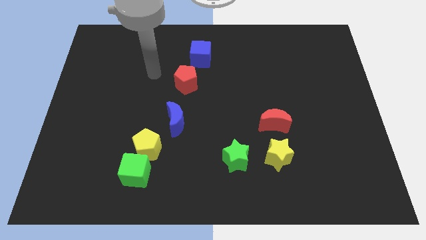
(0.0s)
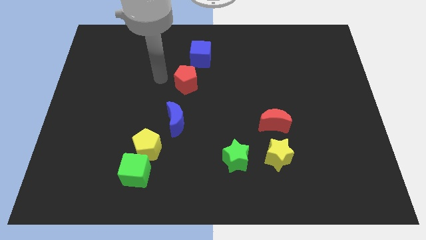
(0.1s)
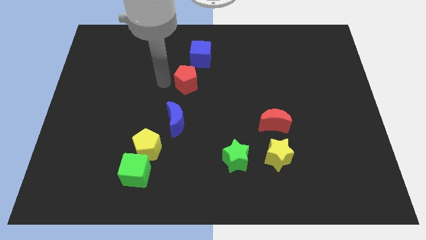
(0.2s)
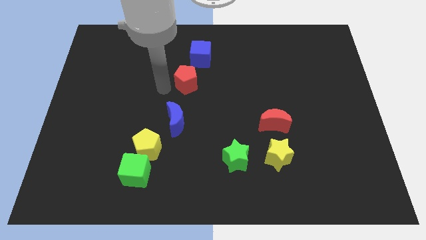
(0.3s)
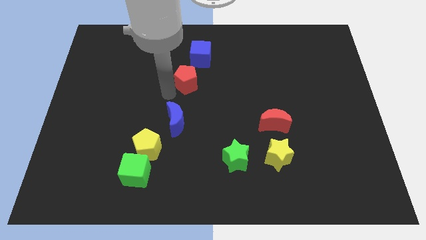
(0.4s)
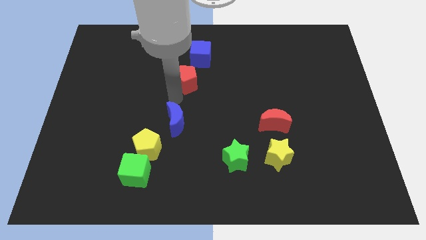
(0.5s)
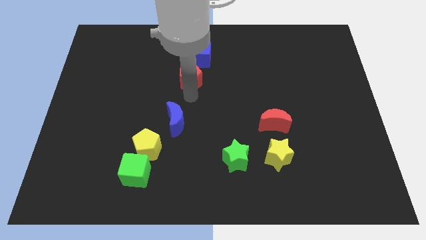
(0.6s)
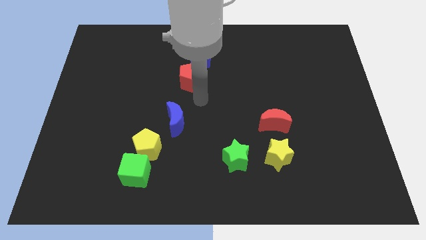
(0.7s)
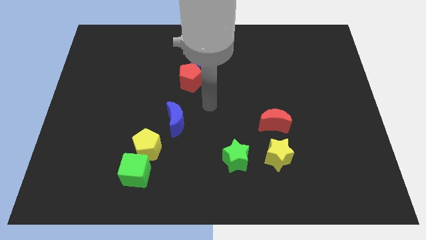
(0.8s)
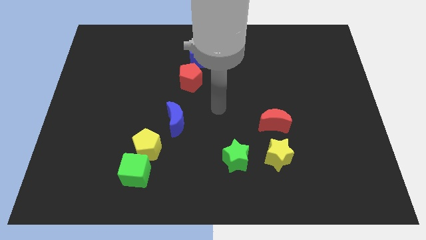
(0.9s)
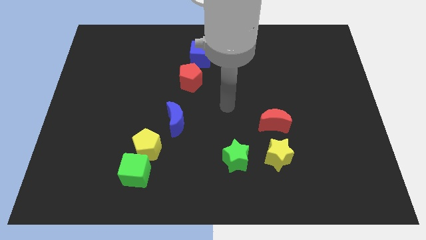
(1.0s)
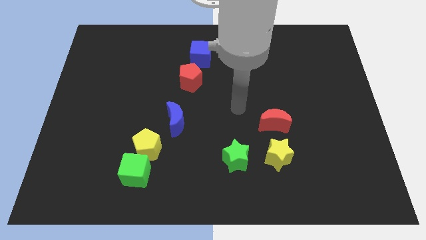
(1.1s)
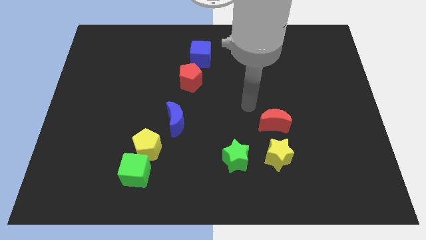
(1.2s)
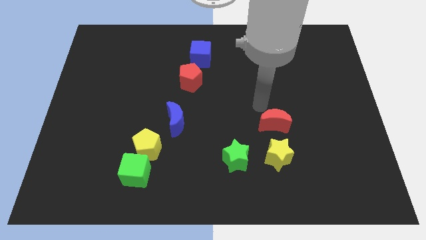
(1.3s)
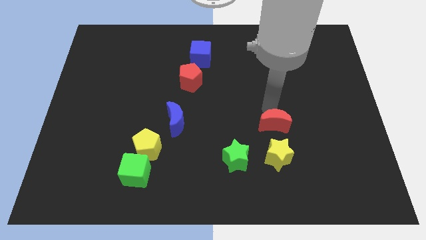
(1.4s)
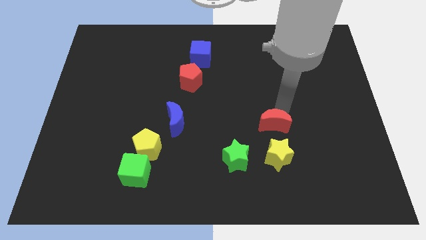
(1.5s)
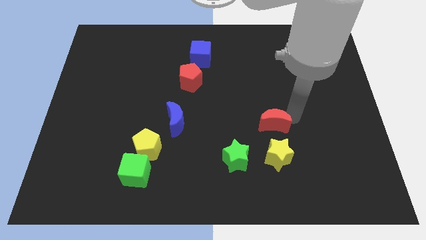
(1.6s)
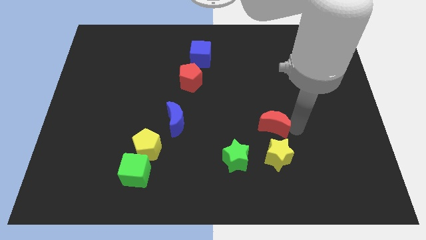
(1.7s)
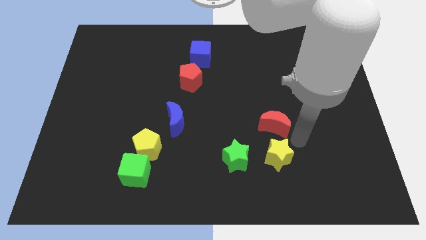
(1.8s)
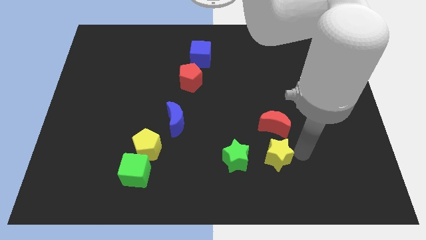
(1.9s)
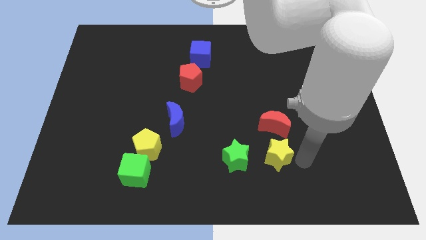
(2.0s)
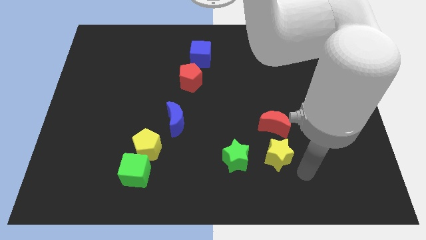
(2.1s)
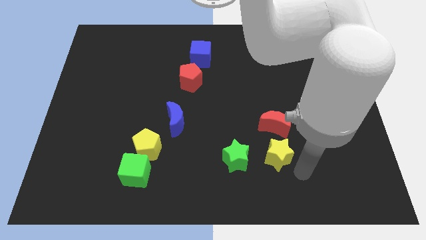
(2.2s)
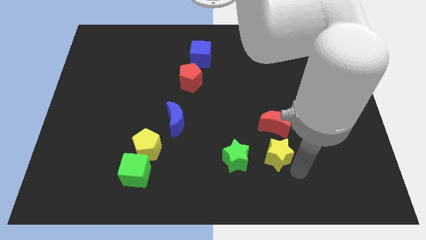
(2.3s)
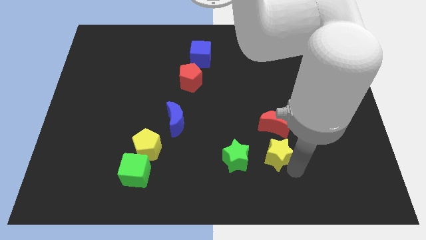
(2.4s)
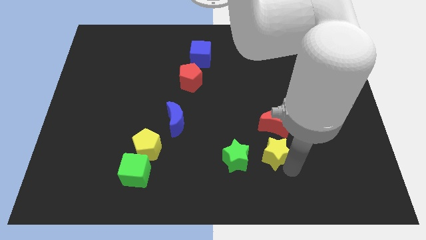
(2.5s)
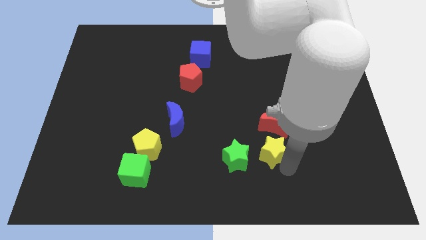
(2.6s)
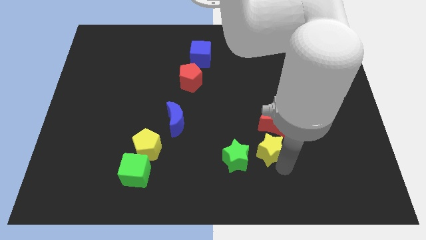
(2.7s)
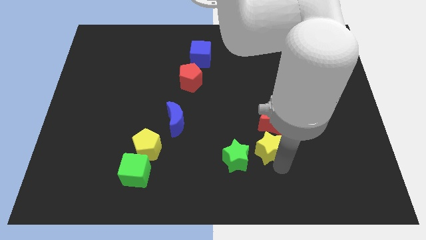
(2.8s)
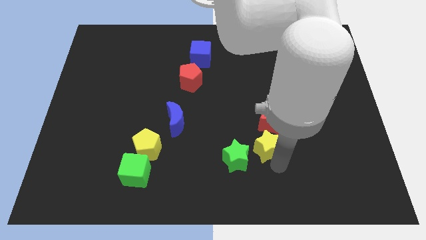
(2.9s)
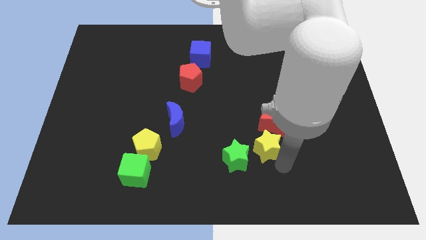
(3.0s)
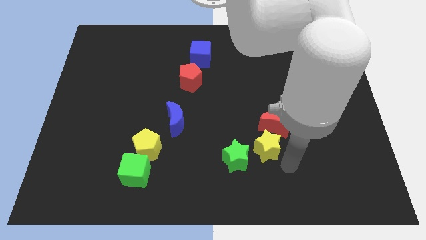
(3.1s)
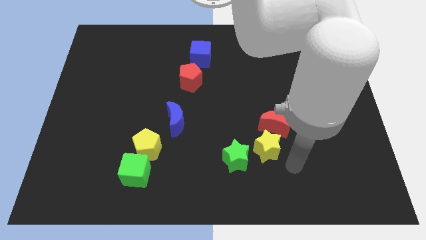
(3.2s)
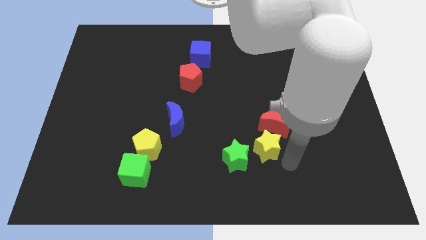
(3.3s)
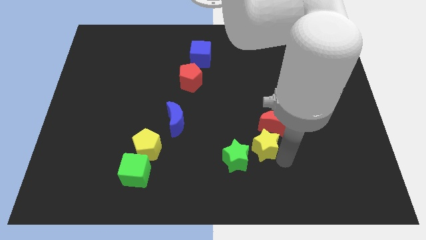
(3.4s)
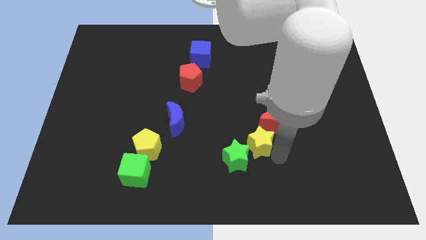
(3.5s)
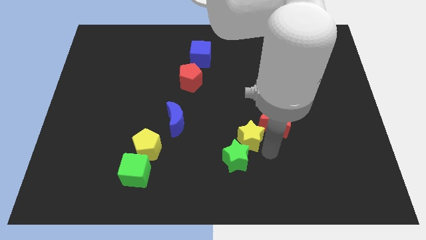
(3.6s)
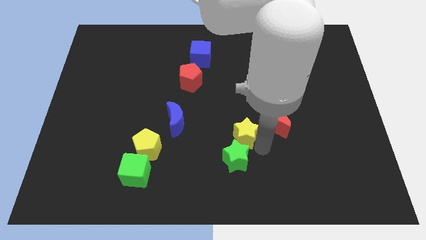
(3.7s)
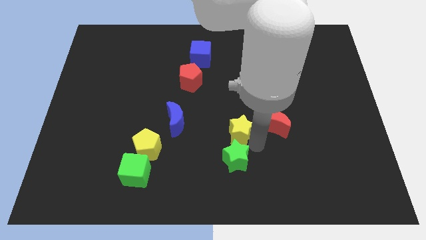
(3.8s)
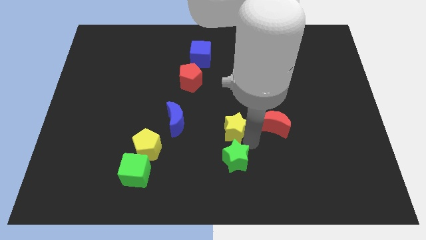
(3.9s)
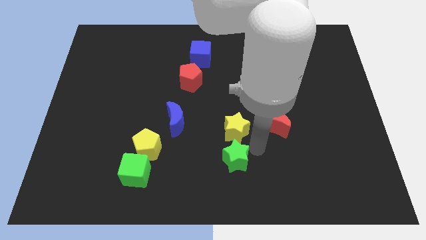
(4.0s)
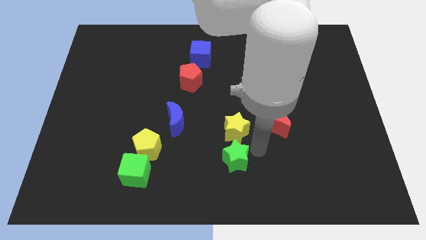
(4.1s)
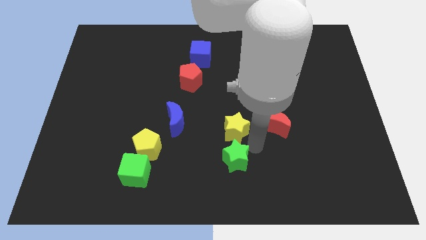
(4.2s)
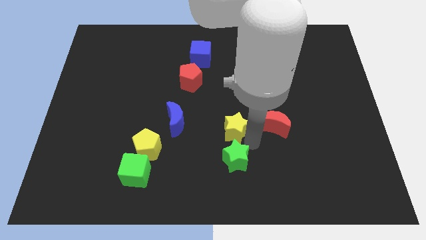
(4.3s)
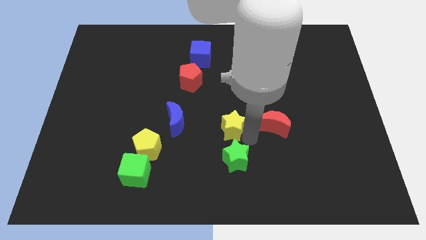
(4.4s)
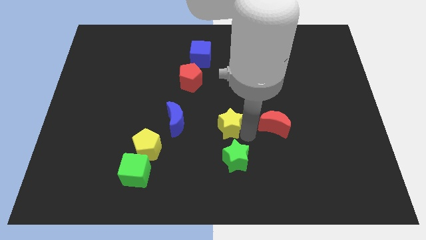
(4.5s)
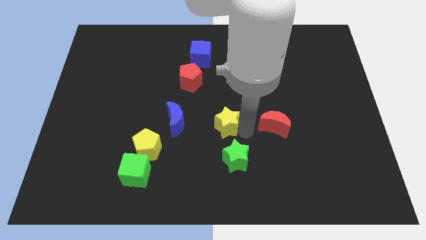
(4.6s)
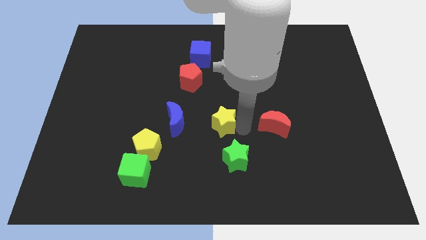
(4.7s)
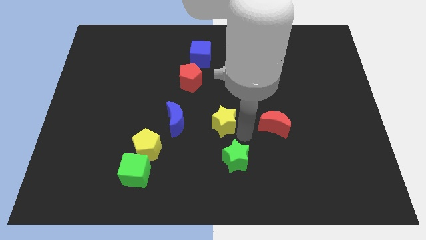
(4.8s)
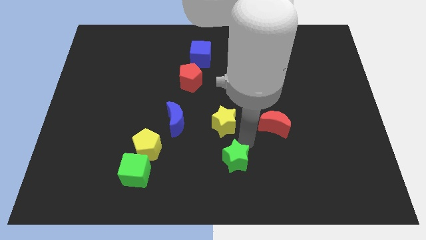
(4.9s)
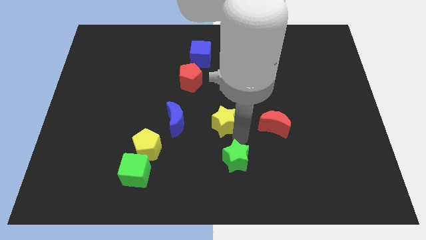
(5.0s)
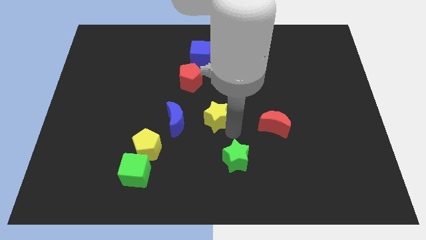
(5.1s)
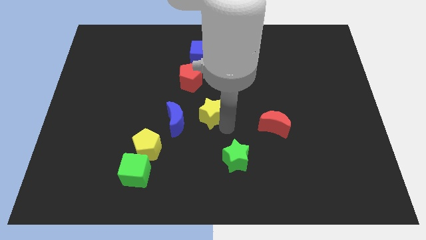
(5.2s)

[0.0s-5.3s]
move the yellow star to the top right side of the blue moon

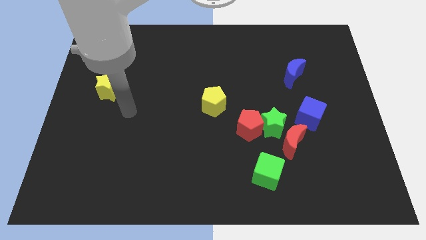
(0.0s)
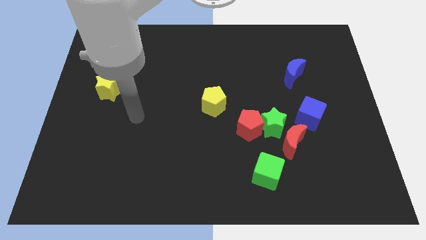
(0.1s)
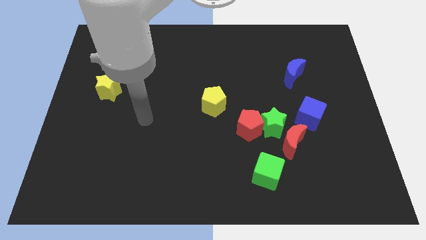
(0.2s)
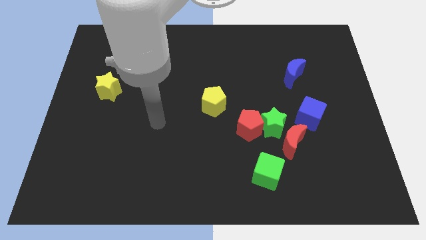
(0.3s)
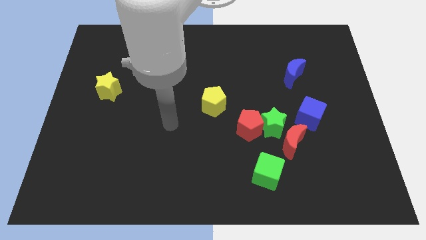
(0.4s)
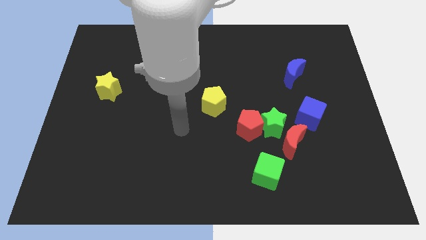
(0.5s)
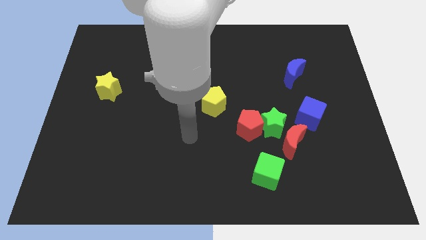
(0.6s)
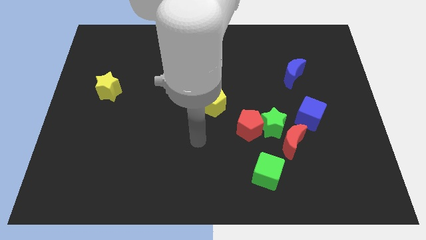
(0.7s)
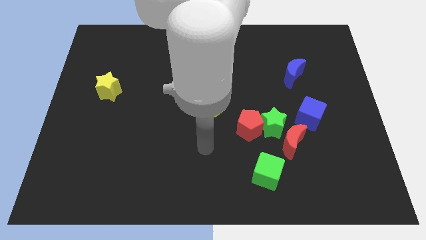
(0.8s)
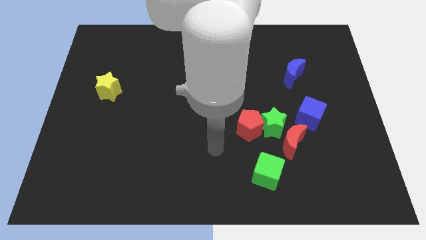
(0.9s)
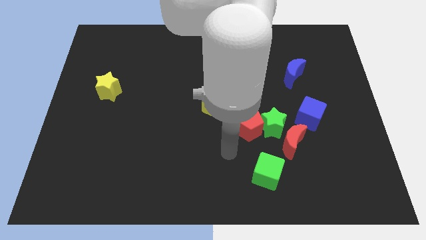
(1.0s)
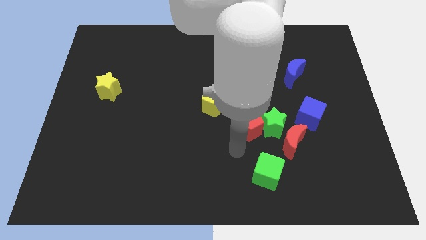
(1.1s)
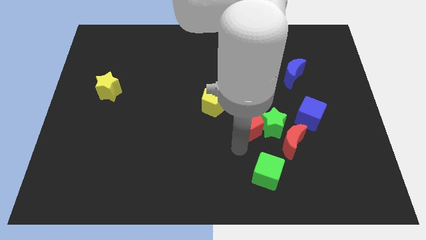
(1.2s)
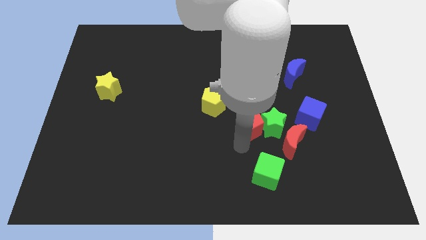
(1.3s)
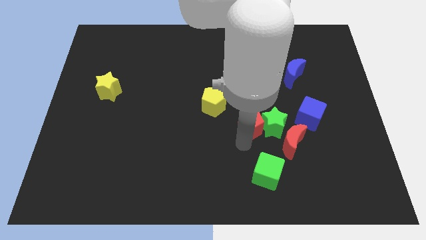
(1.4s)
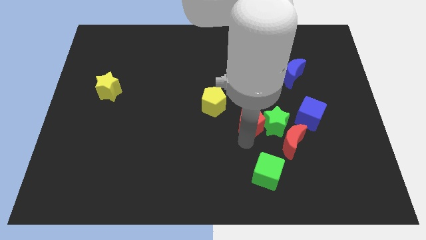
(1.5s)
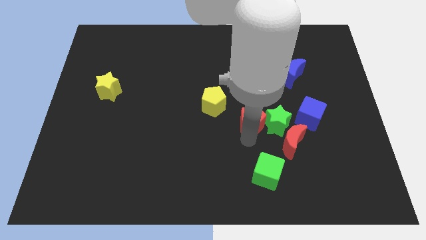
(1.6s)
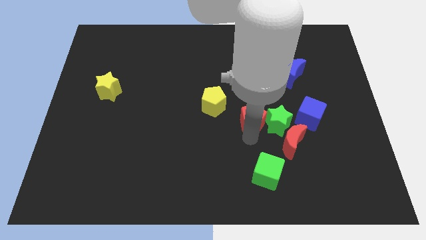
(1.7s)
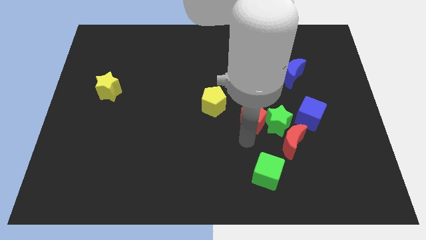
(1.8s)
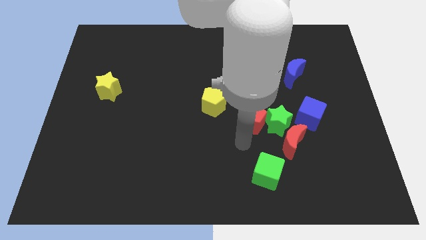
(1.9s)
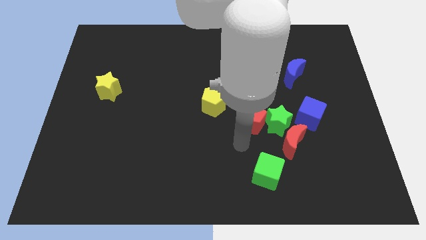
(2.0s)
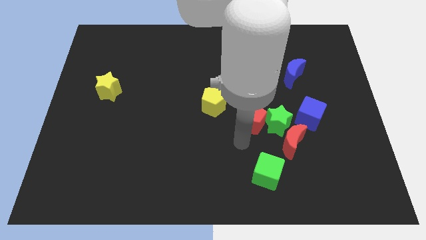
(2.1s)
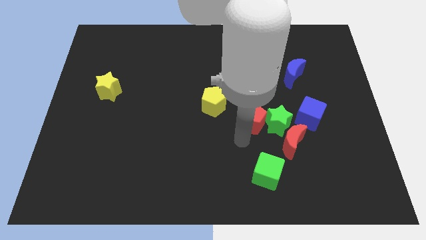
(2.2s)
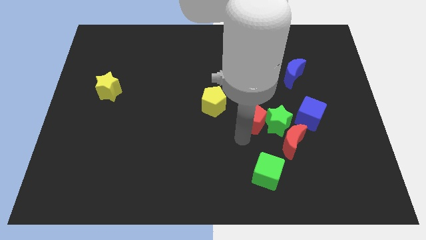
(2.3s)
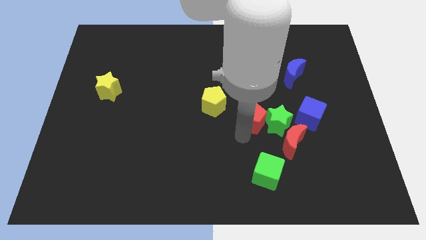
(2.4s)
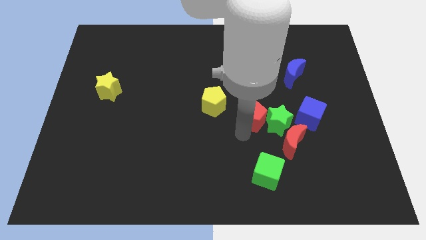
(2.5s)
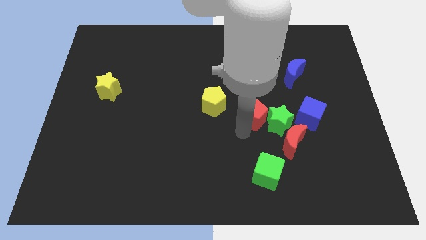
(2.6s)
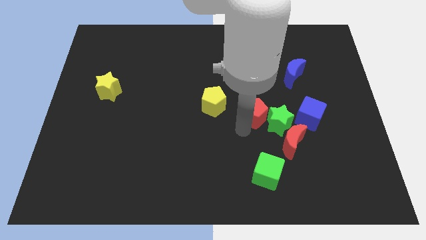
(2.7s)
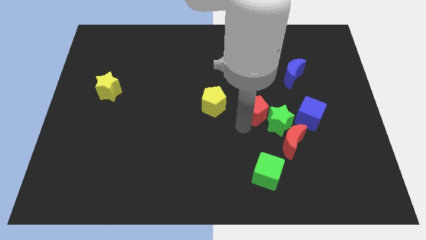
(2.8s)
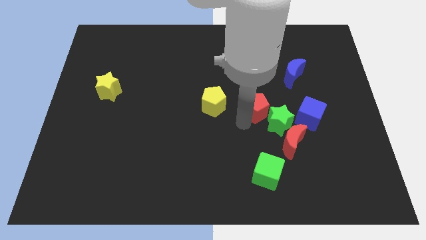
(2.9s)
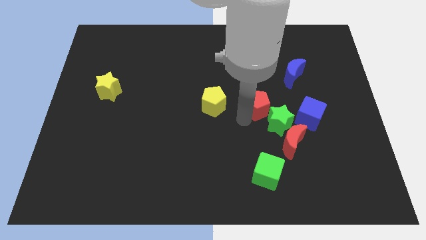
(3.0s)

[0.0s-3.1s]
move the red pentagon to the top side of the green star
